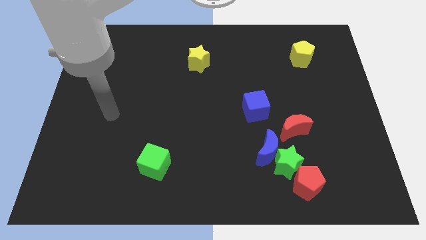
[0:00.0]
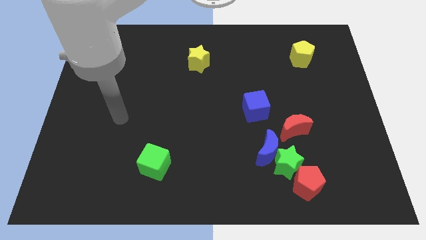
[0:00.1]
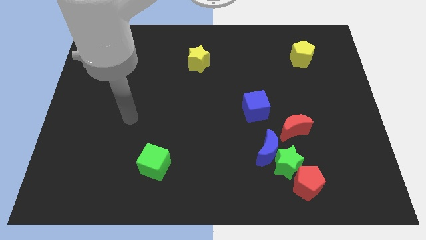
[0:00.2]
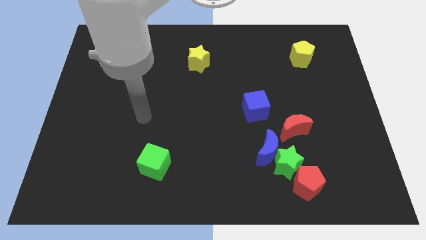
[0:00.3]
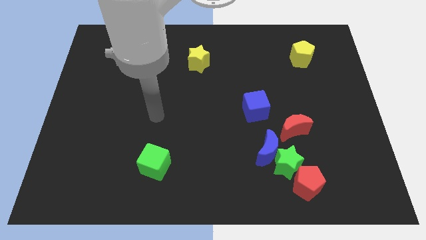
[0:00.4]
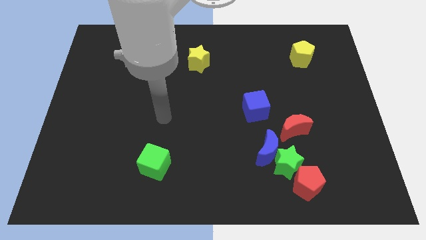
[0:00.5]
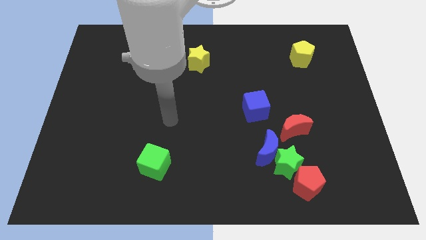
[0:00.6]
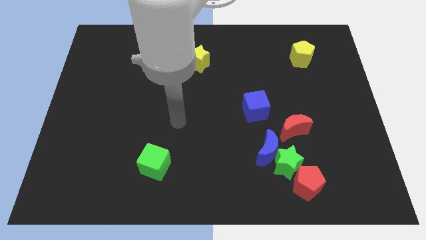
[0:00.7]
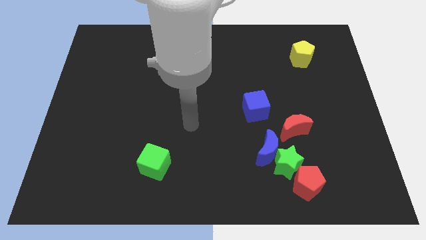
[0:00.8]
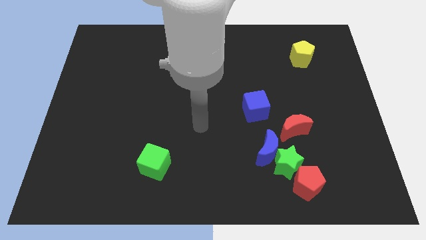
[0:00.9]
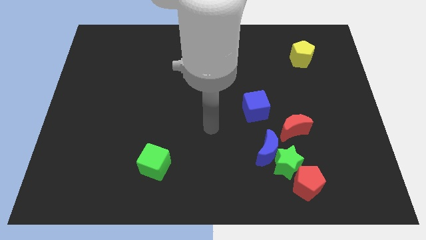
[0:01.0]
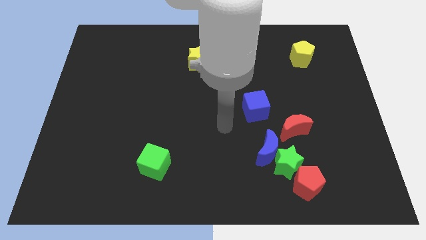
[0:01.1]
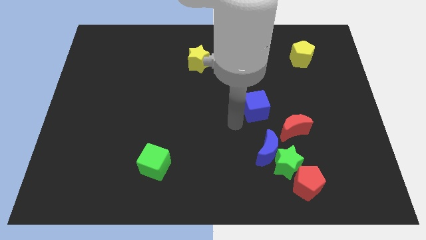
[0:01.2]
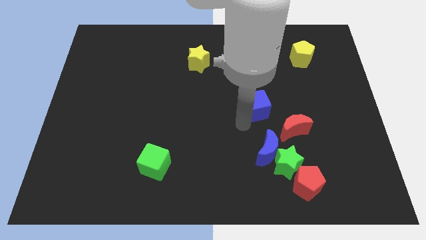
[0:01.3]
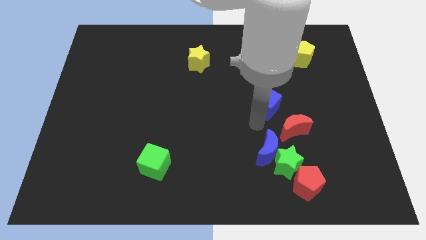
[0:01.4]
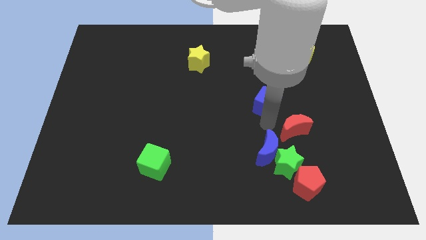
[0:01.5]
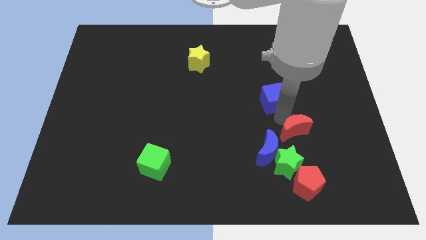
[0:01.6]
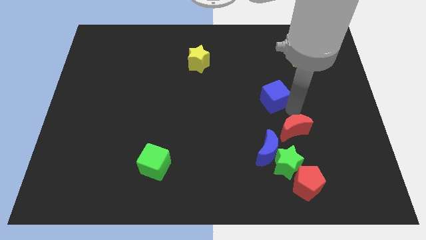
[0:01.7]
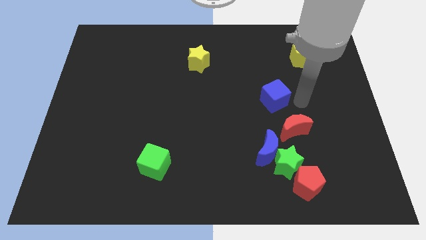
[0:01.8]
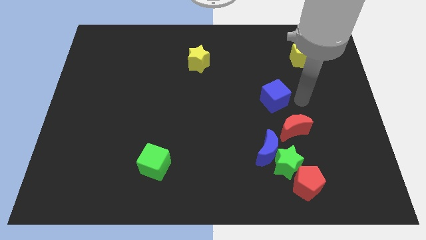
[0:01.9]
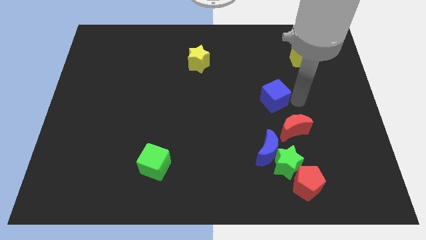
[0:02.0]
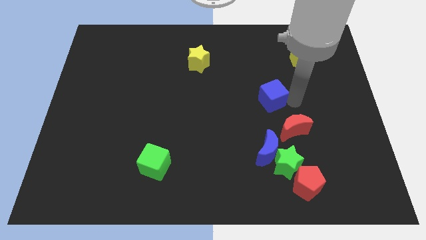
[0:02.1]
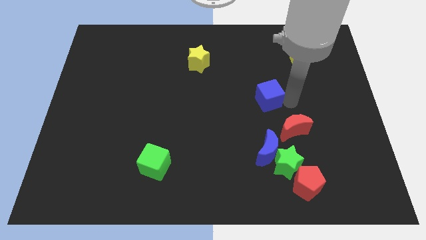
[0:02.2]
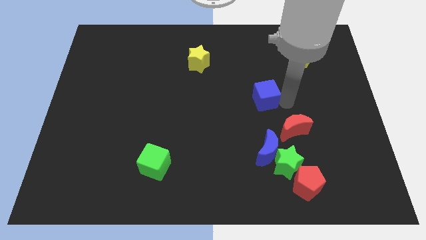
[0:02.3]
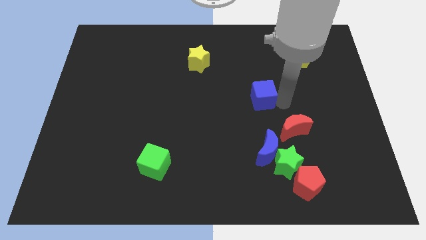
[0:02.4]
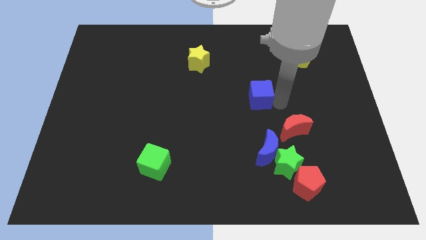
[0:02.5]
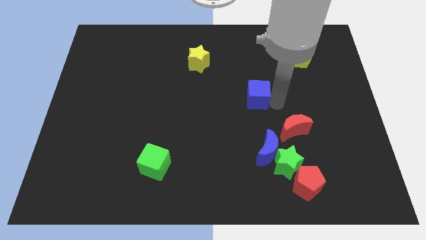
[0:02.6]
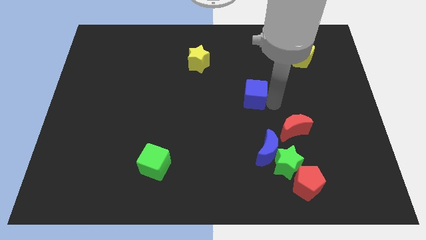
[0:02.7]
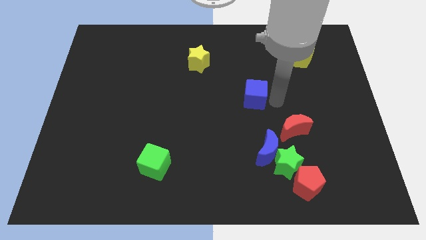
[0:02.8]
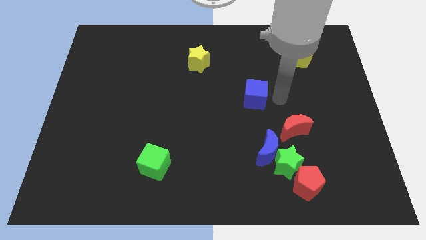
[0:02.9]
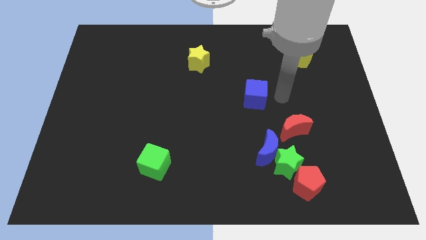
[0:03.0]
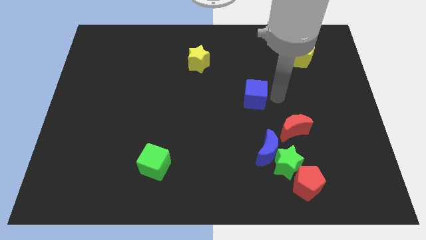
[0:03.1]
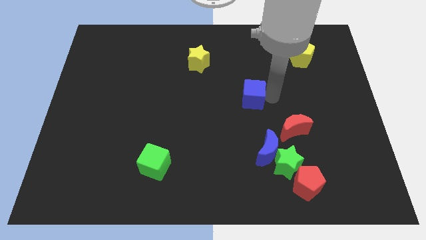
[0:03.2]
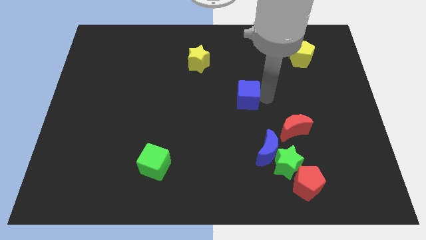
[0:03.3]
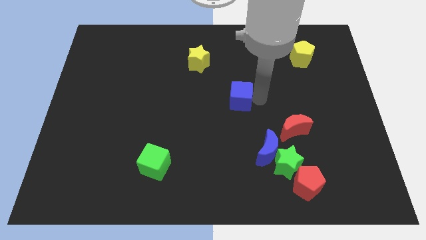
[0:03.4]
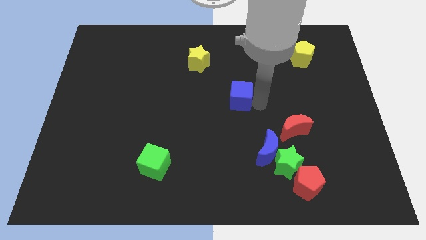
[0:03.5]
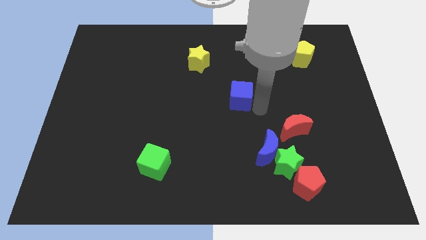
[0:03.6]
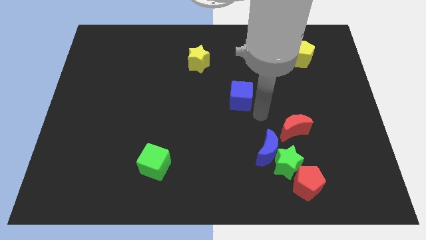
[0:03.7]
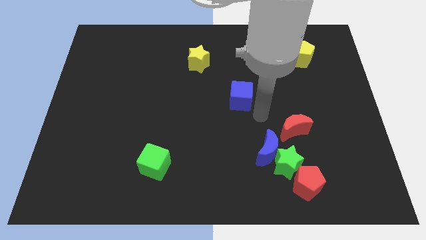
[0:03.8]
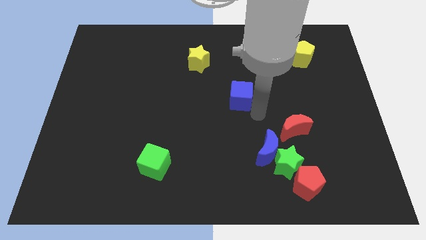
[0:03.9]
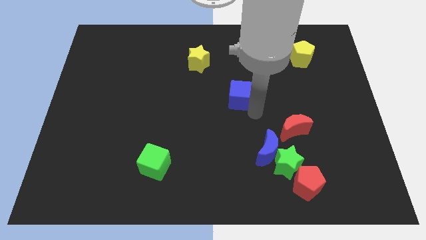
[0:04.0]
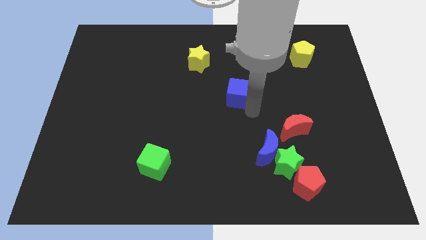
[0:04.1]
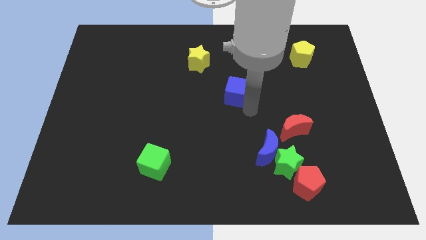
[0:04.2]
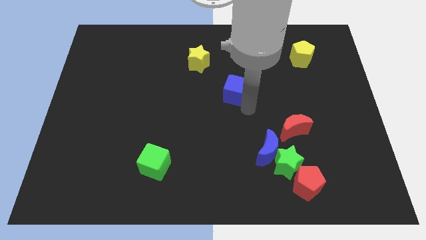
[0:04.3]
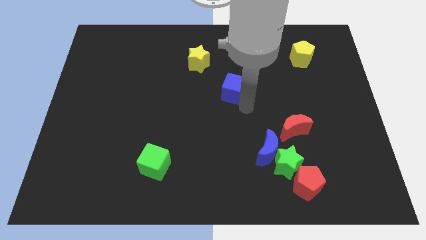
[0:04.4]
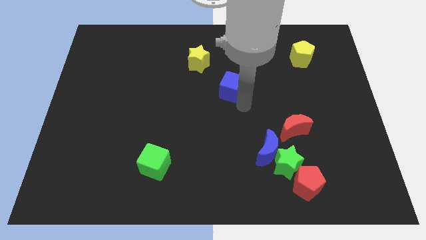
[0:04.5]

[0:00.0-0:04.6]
put the blue cube diagonally down and to the right of the yellow star

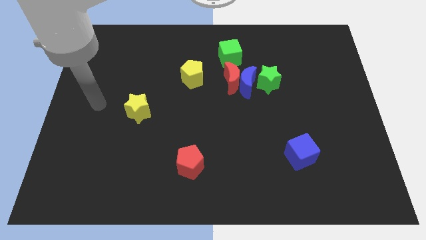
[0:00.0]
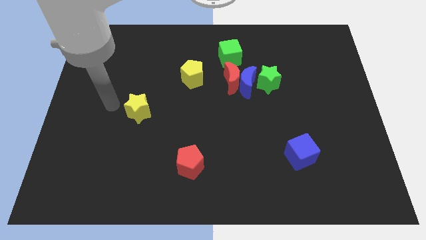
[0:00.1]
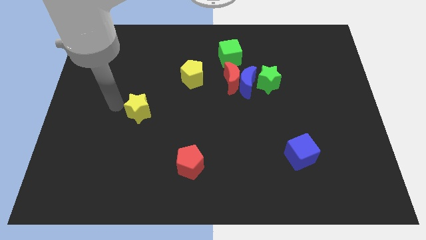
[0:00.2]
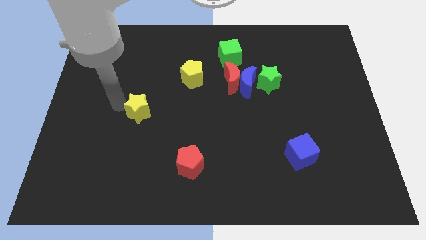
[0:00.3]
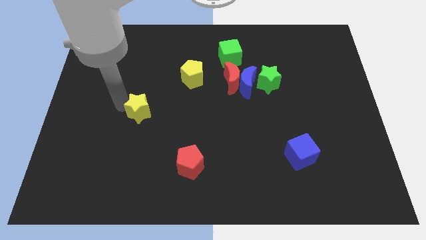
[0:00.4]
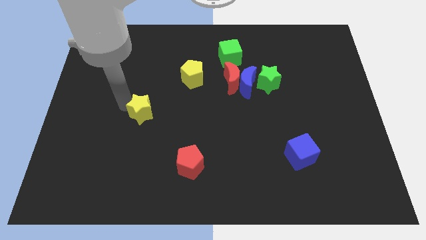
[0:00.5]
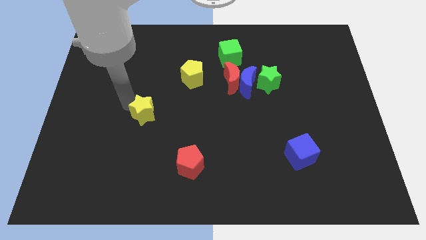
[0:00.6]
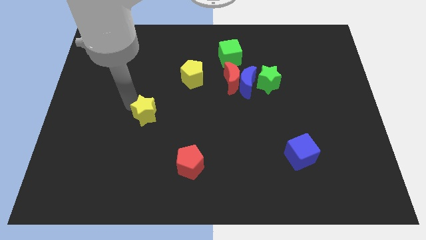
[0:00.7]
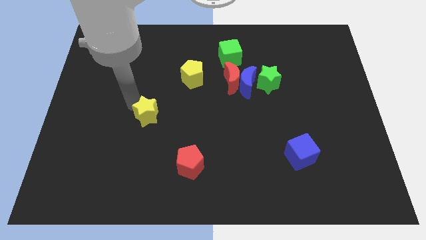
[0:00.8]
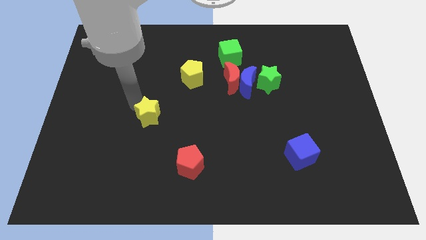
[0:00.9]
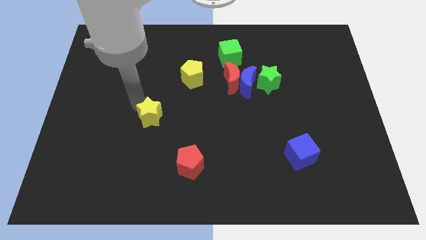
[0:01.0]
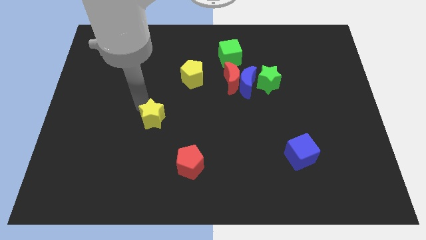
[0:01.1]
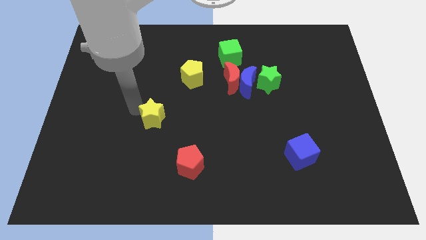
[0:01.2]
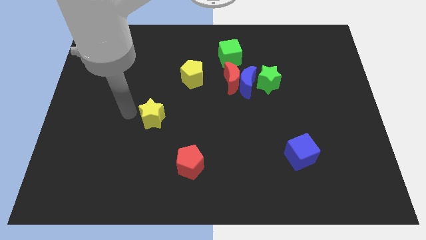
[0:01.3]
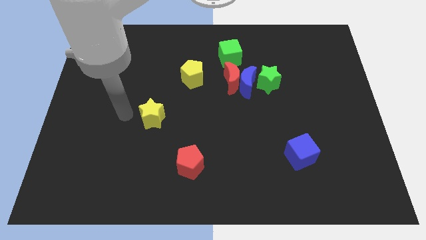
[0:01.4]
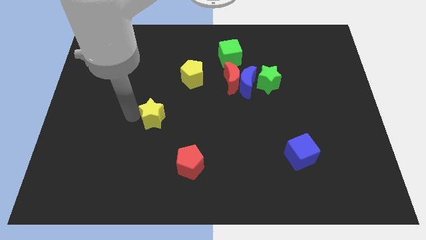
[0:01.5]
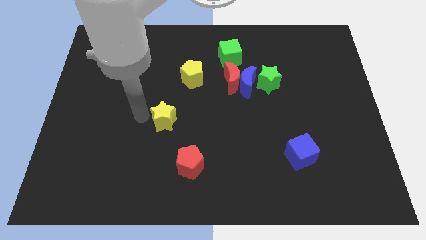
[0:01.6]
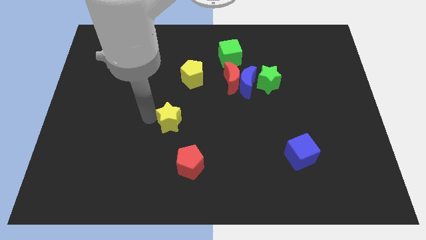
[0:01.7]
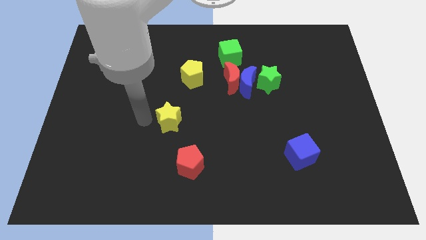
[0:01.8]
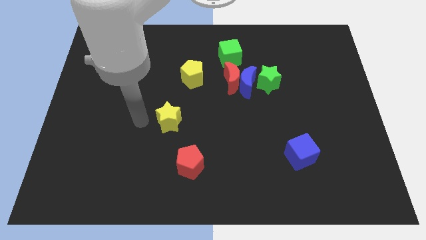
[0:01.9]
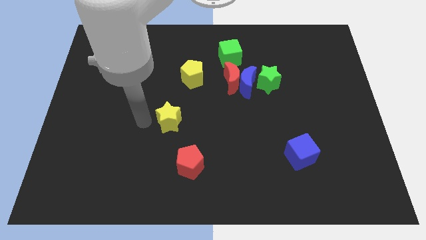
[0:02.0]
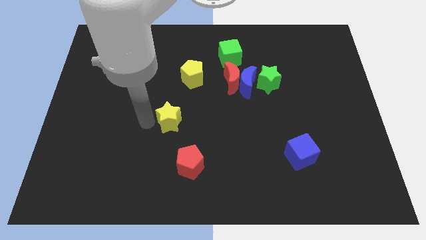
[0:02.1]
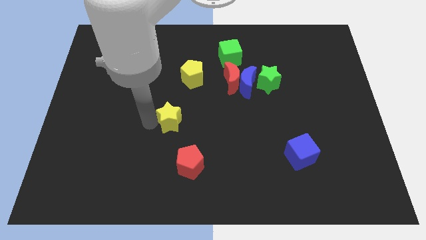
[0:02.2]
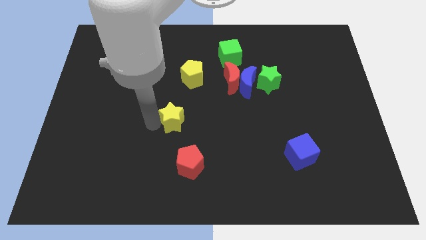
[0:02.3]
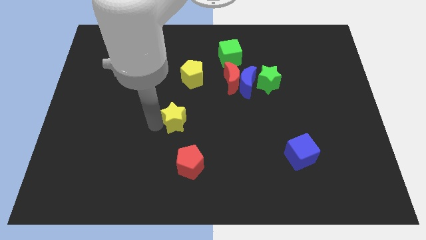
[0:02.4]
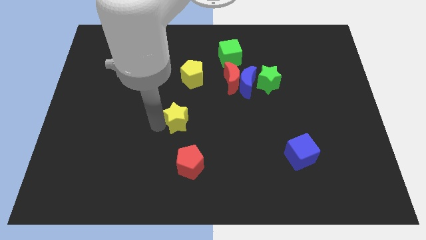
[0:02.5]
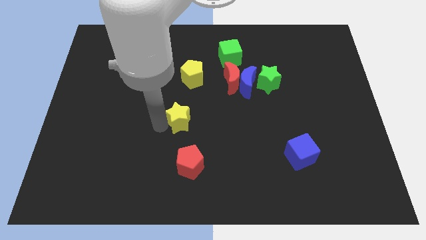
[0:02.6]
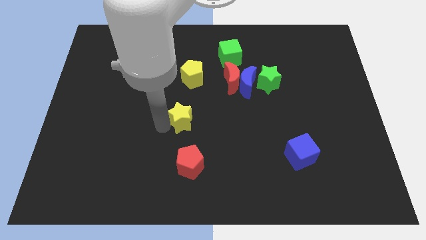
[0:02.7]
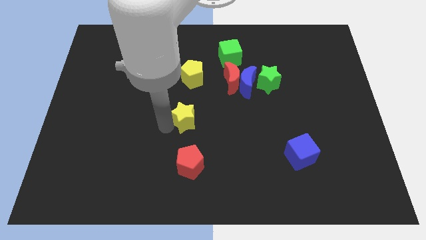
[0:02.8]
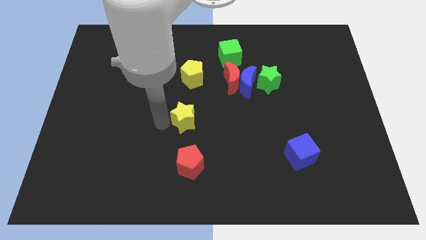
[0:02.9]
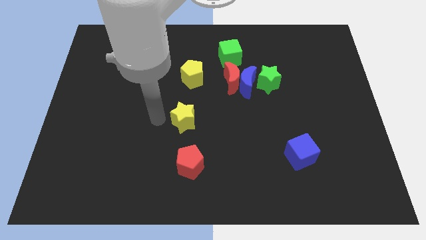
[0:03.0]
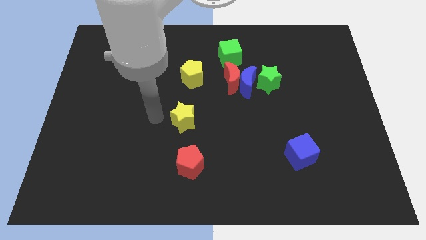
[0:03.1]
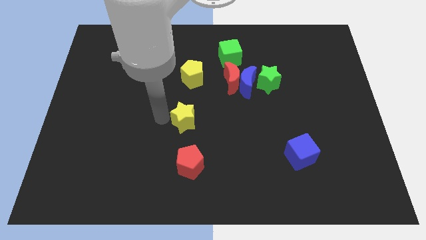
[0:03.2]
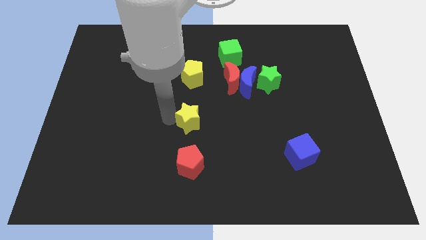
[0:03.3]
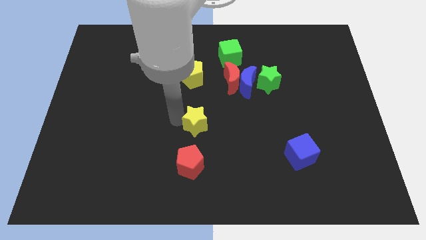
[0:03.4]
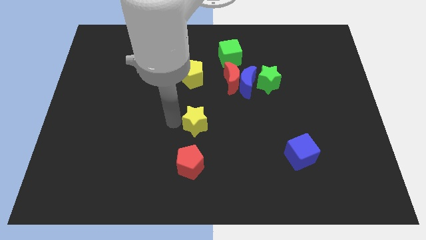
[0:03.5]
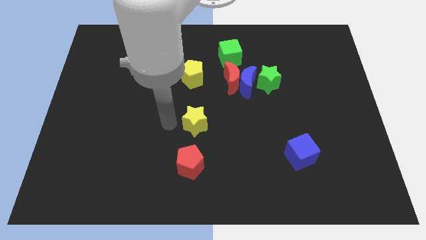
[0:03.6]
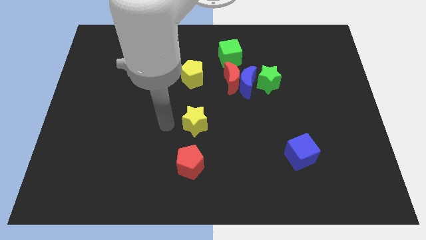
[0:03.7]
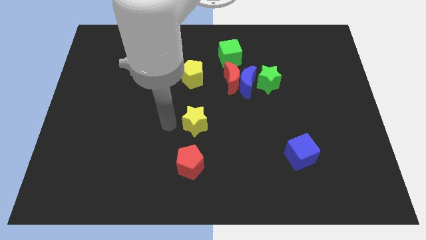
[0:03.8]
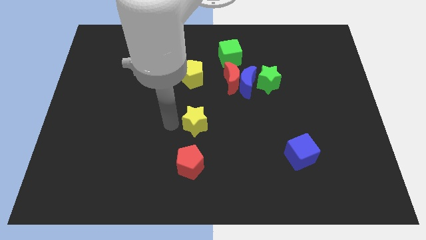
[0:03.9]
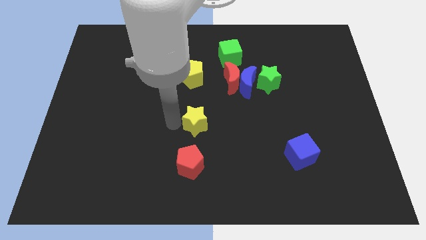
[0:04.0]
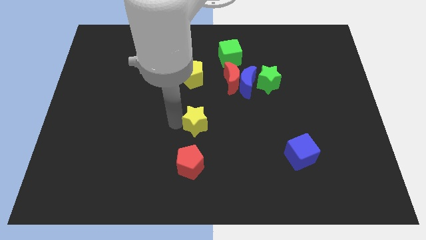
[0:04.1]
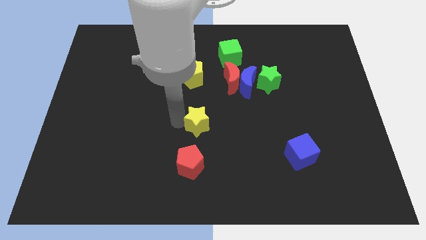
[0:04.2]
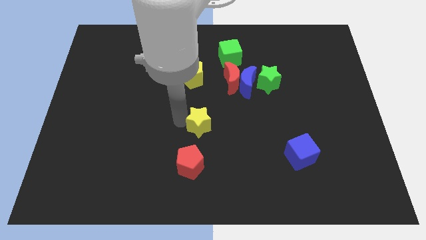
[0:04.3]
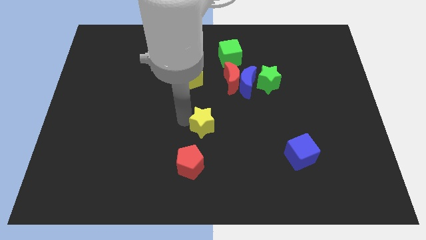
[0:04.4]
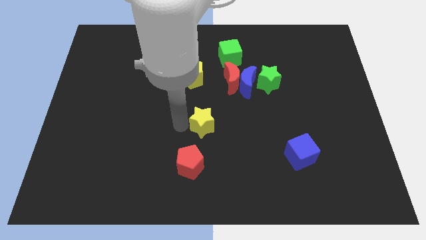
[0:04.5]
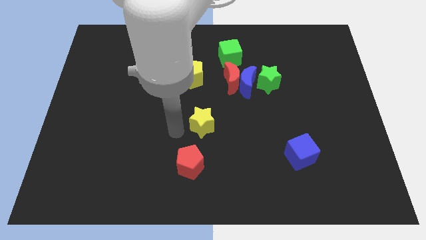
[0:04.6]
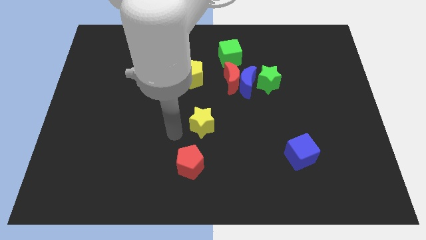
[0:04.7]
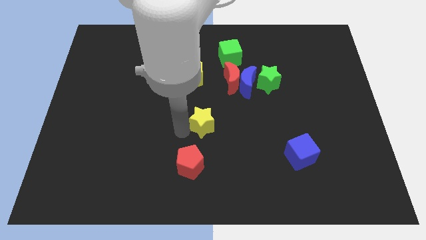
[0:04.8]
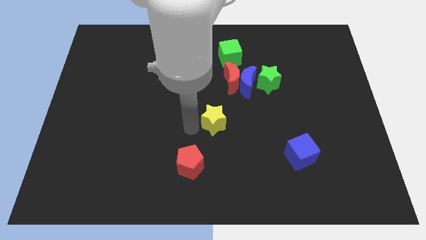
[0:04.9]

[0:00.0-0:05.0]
slide the yellow star to the bottom of the red moon
